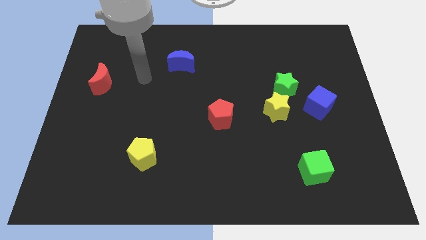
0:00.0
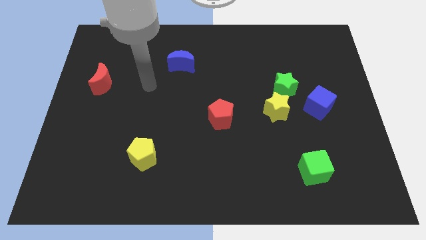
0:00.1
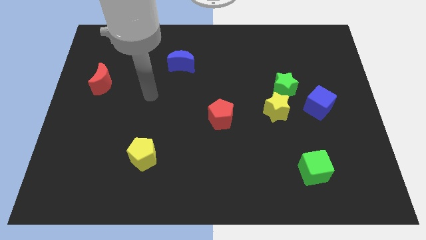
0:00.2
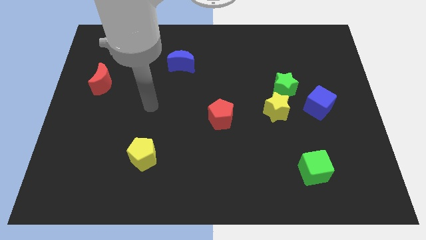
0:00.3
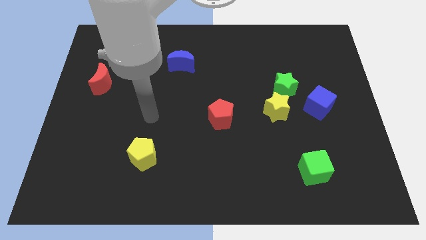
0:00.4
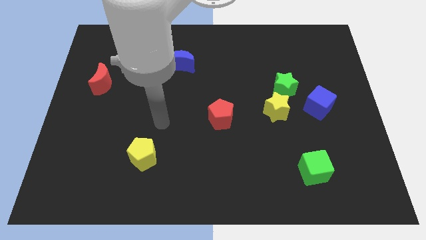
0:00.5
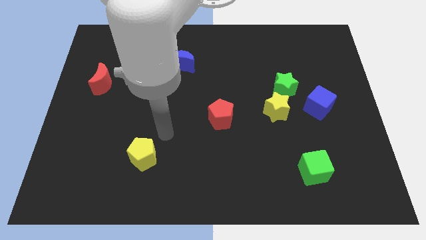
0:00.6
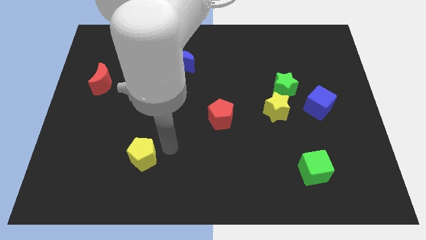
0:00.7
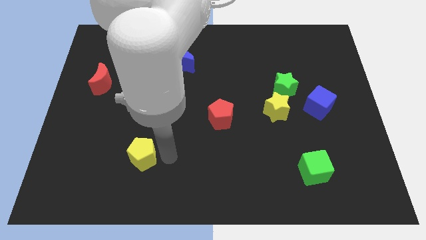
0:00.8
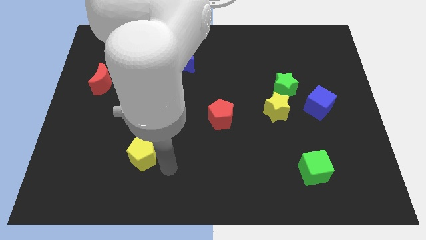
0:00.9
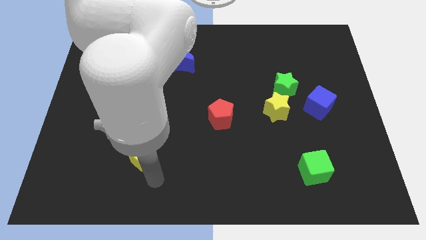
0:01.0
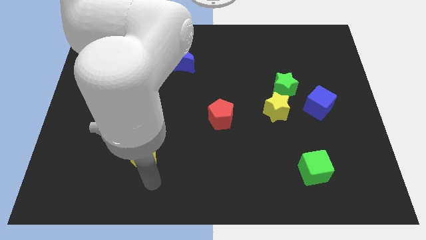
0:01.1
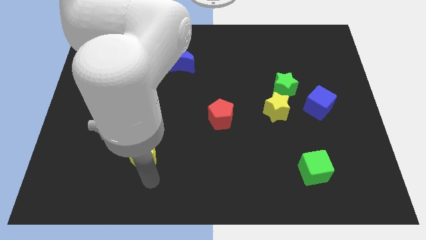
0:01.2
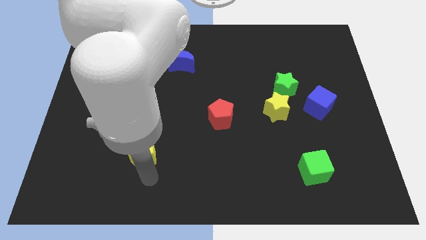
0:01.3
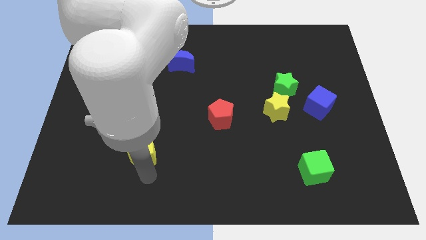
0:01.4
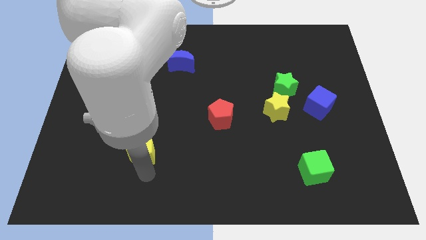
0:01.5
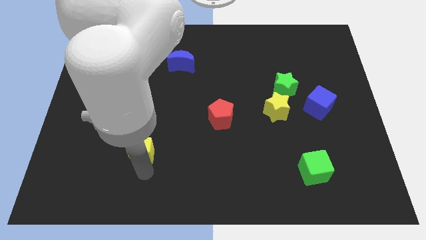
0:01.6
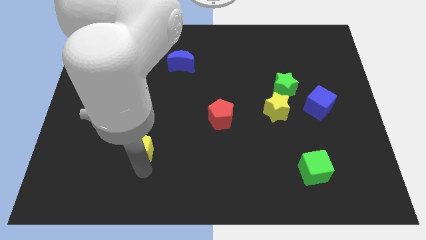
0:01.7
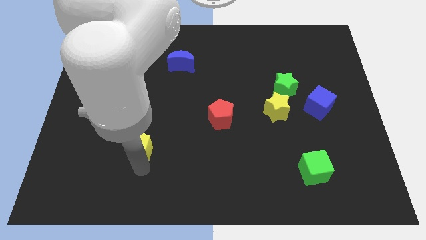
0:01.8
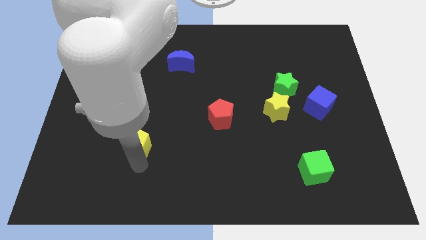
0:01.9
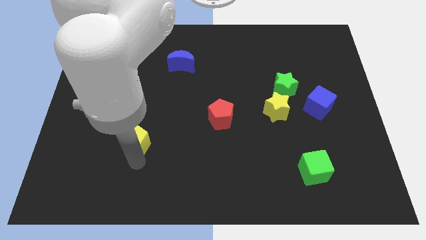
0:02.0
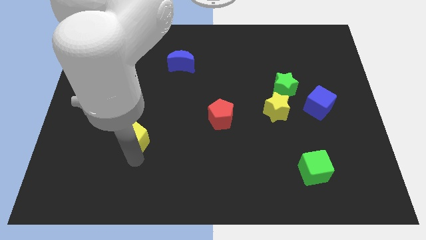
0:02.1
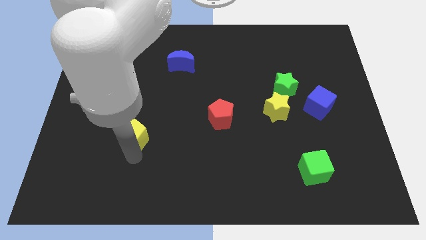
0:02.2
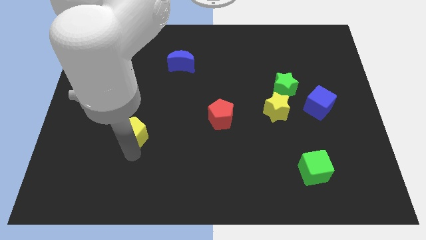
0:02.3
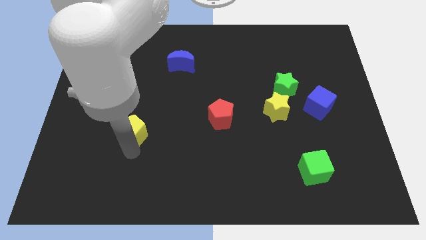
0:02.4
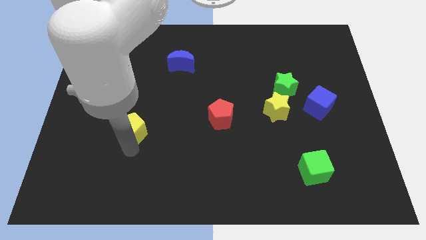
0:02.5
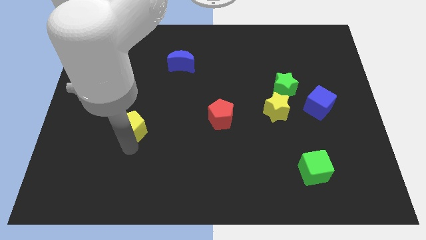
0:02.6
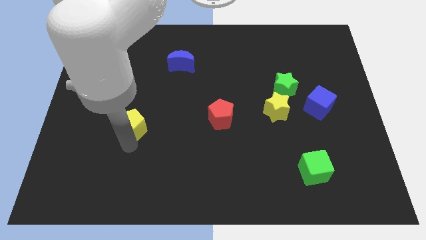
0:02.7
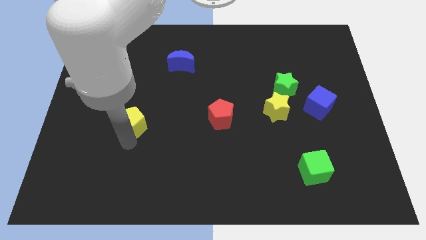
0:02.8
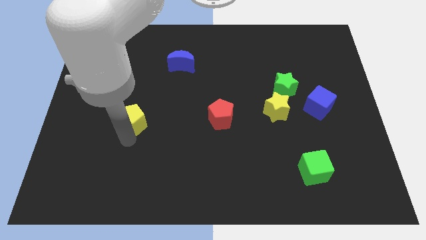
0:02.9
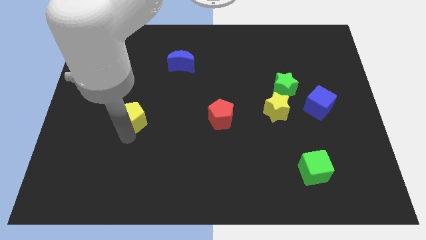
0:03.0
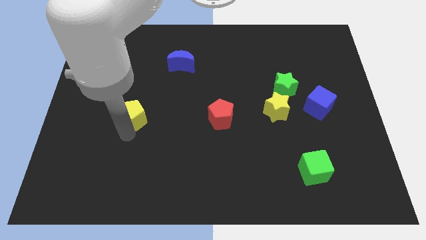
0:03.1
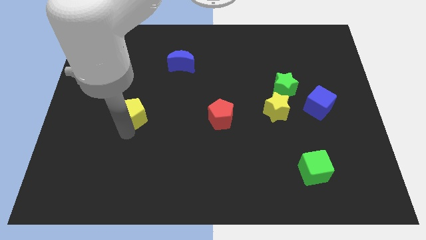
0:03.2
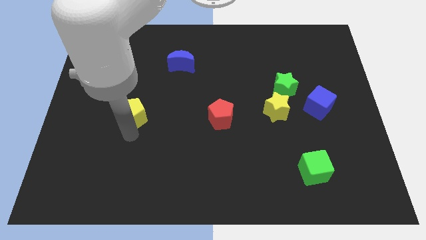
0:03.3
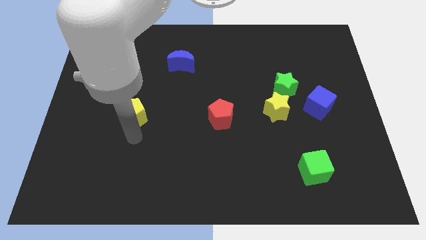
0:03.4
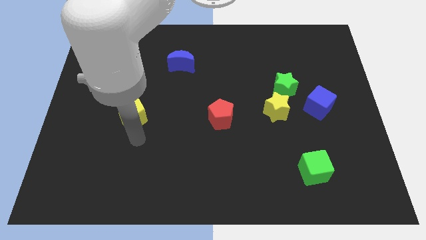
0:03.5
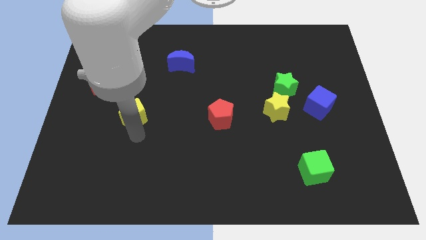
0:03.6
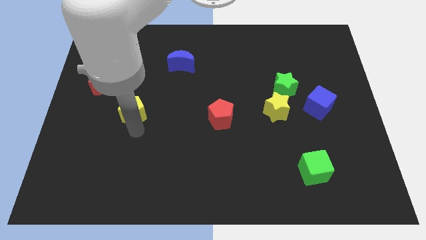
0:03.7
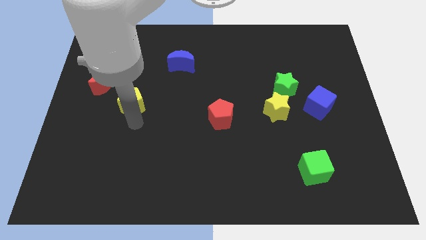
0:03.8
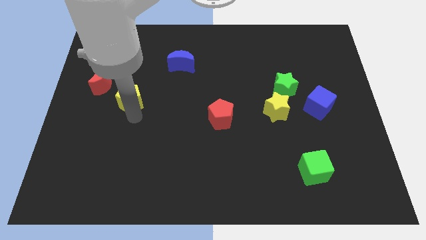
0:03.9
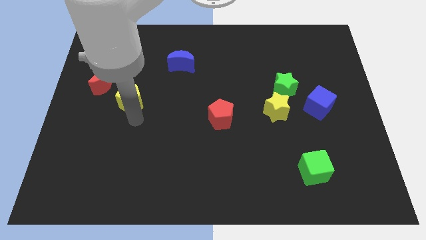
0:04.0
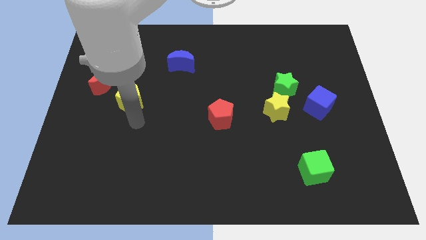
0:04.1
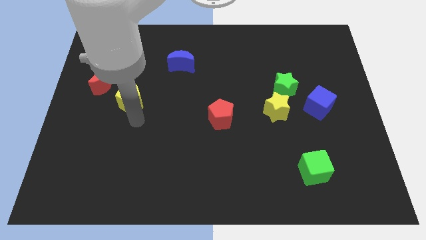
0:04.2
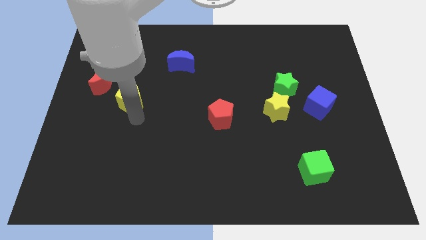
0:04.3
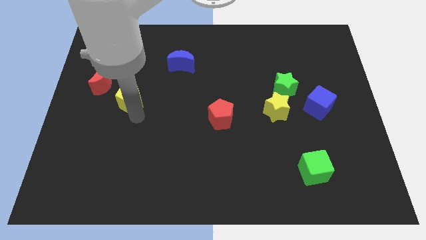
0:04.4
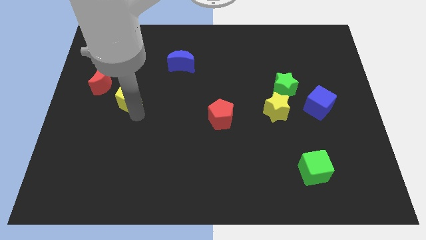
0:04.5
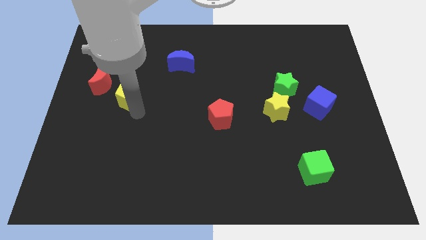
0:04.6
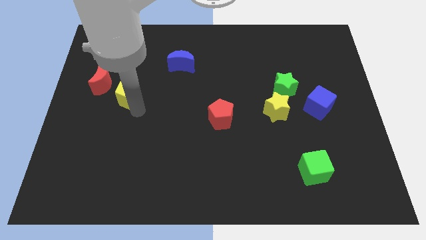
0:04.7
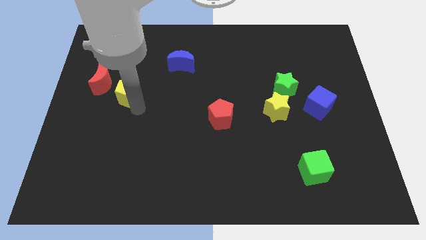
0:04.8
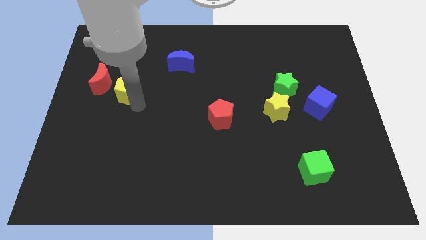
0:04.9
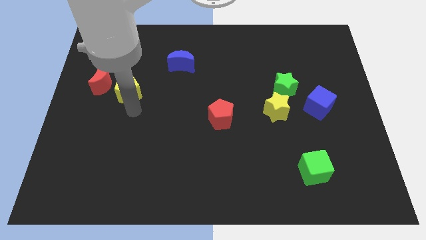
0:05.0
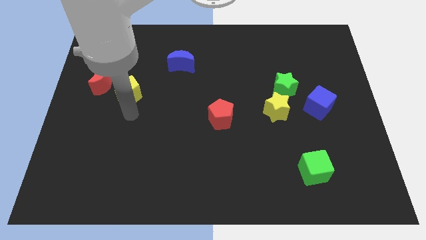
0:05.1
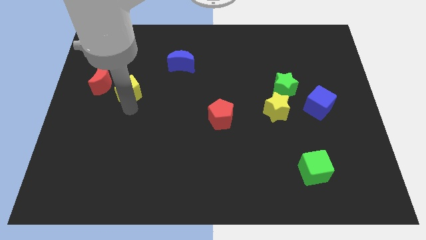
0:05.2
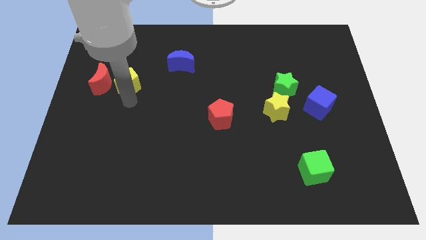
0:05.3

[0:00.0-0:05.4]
slide the yellow pentagon to the top right side of the red moon

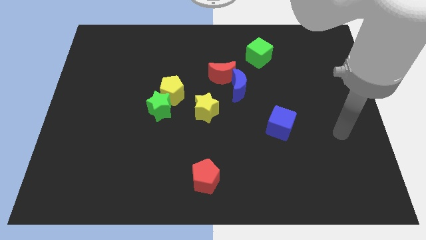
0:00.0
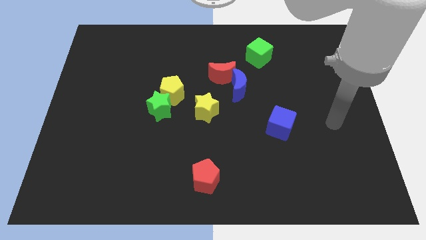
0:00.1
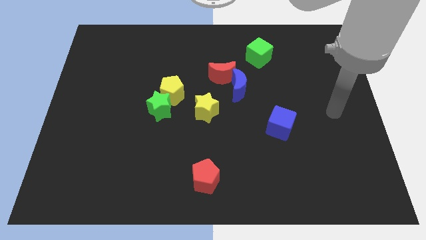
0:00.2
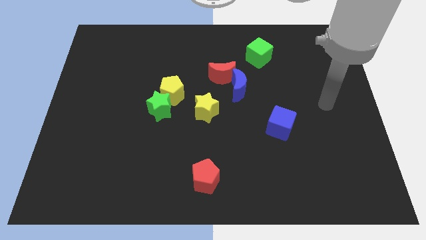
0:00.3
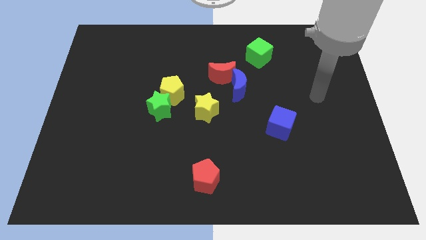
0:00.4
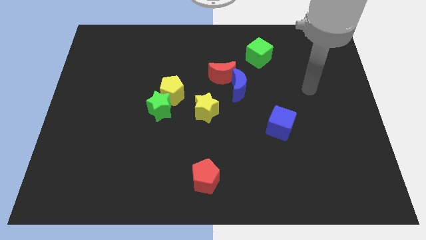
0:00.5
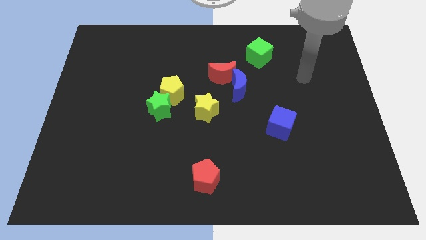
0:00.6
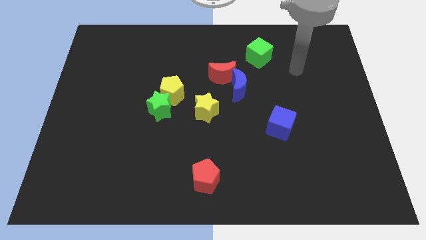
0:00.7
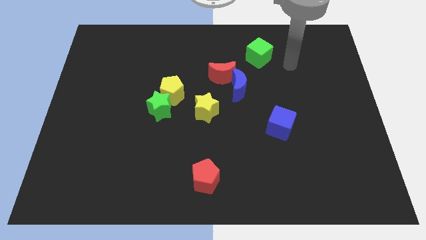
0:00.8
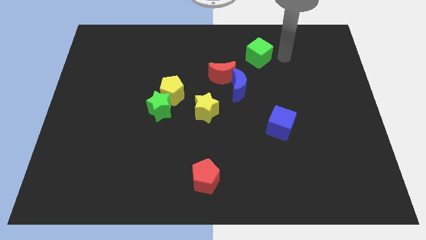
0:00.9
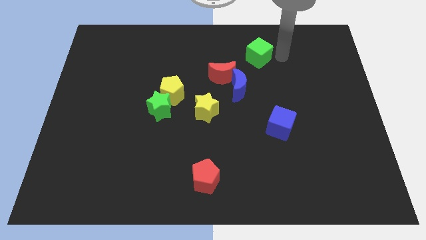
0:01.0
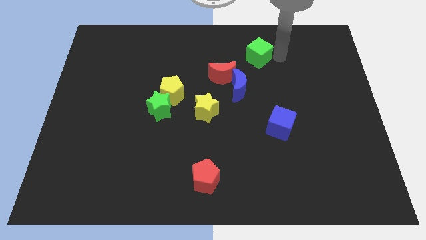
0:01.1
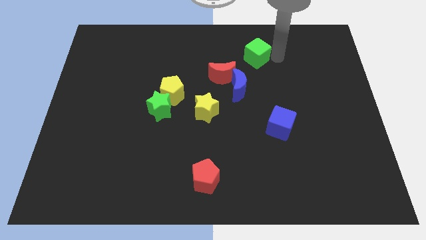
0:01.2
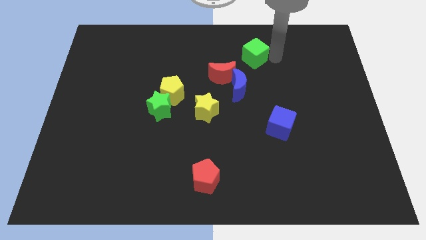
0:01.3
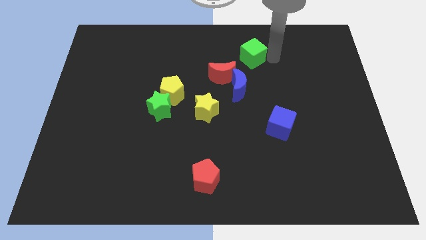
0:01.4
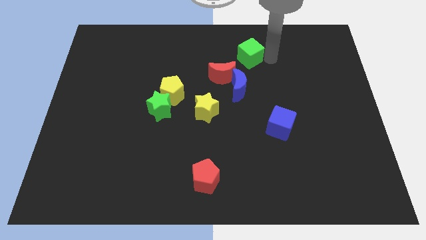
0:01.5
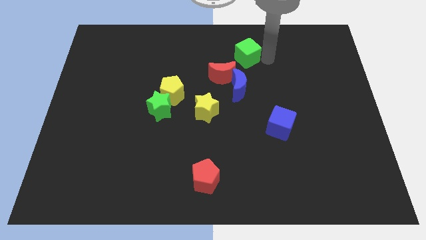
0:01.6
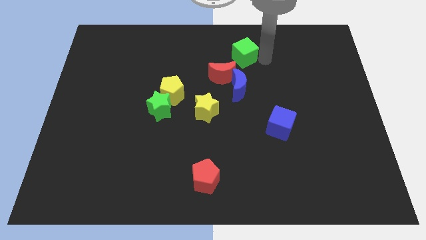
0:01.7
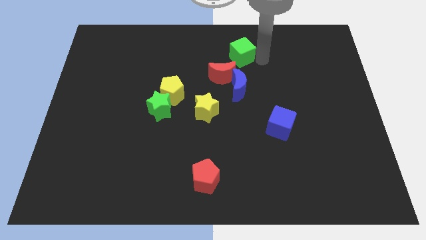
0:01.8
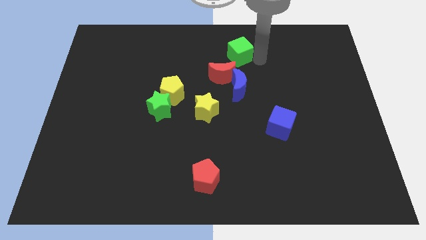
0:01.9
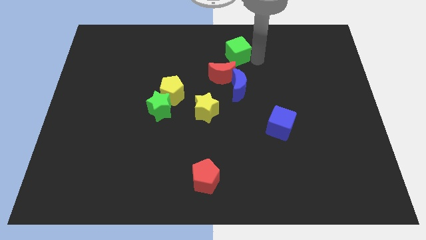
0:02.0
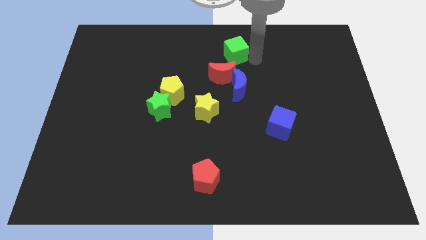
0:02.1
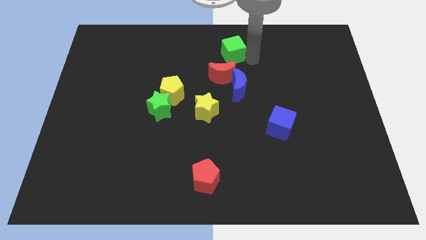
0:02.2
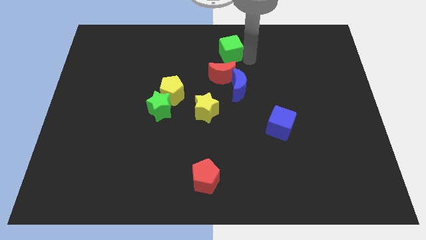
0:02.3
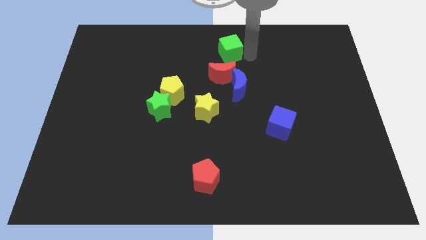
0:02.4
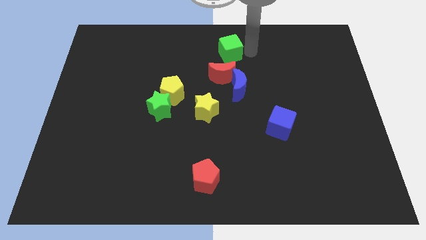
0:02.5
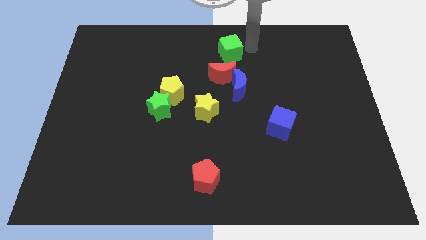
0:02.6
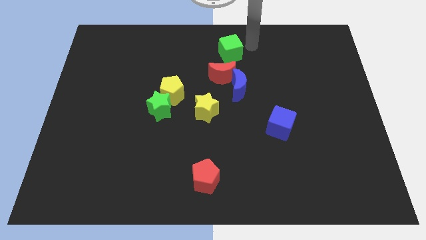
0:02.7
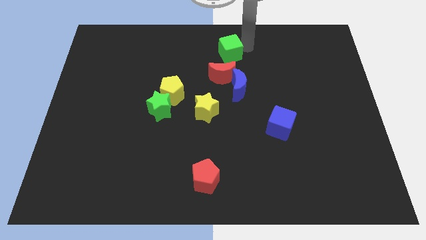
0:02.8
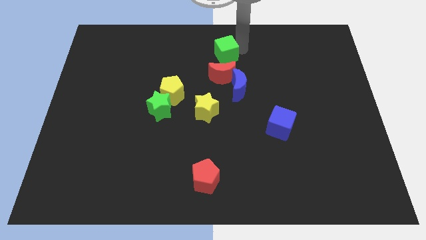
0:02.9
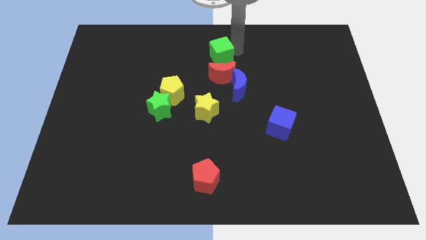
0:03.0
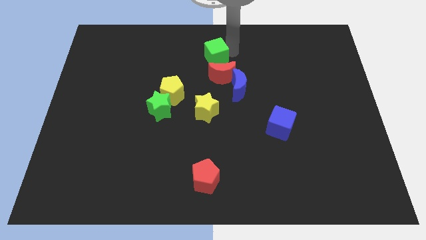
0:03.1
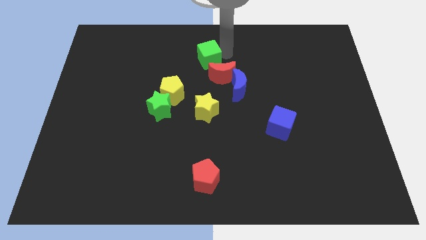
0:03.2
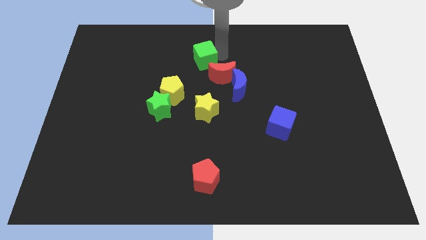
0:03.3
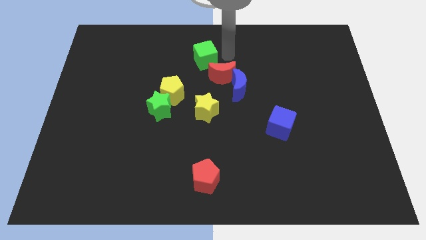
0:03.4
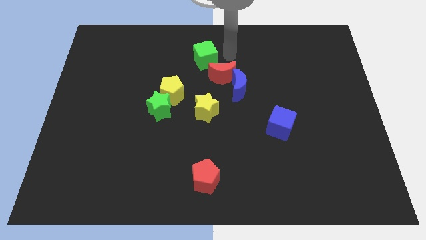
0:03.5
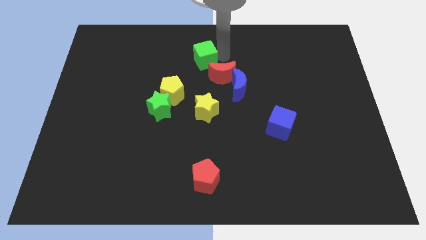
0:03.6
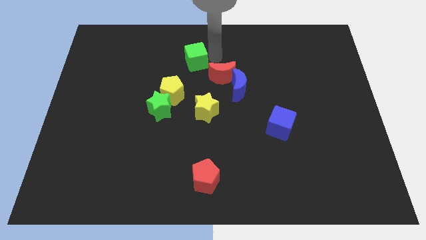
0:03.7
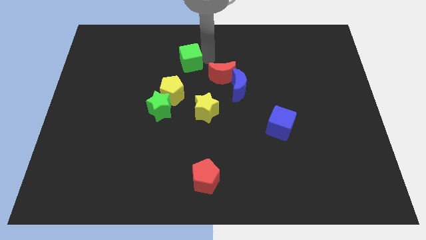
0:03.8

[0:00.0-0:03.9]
move the green cube to the top of the yellow pentagon
